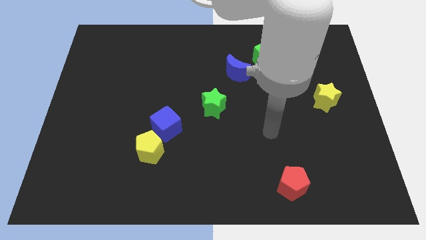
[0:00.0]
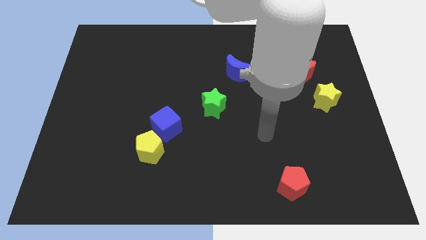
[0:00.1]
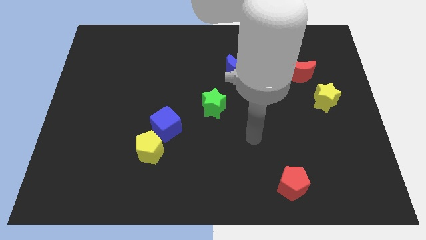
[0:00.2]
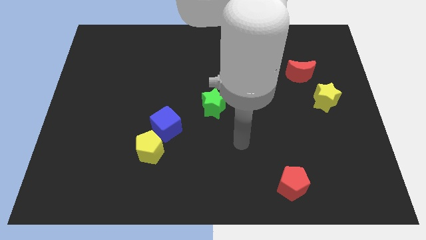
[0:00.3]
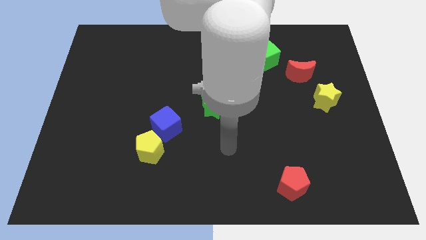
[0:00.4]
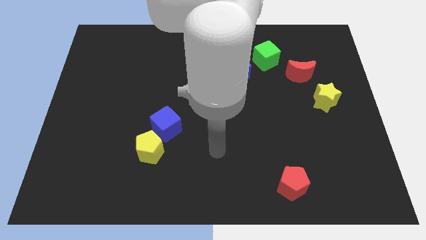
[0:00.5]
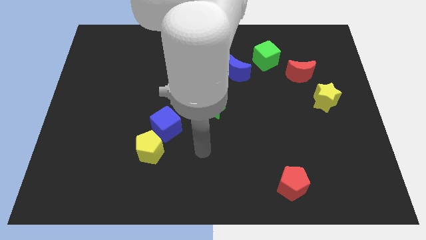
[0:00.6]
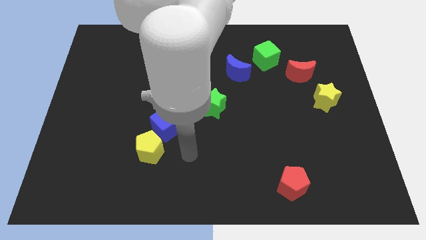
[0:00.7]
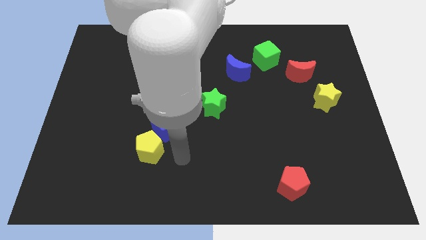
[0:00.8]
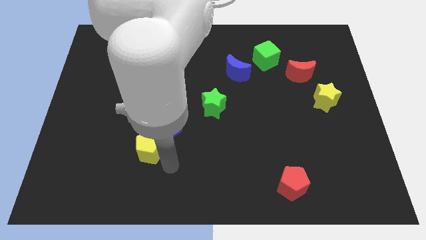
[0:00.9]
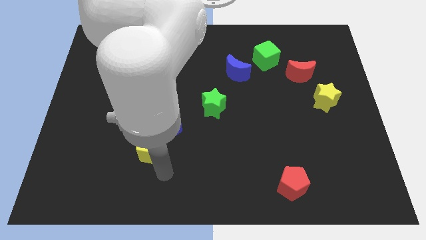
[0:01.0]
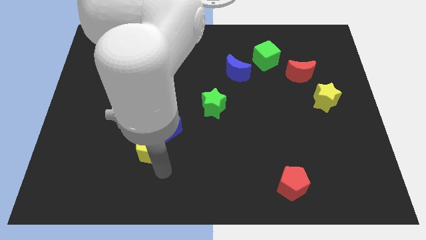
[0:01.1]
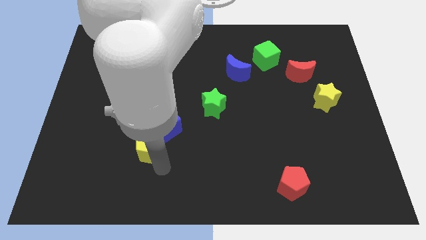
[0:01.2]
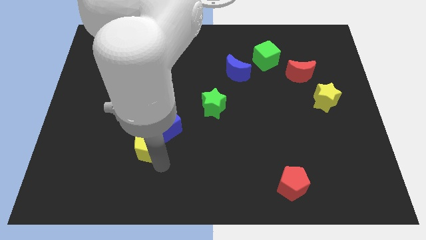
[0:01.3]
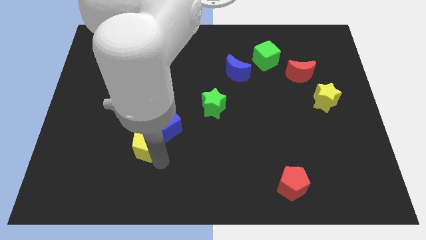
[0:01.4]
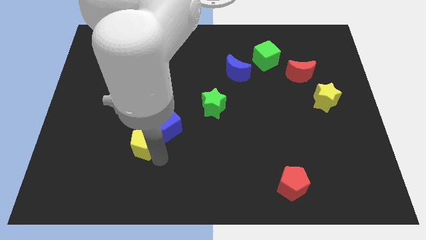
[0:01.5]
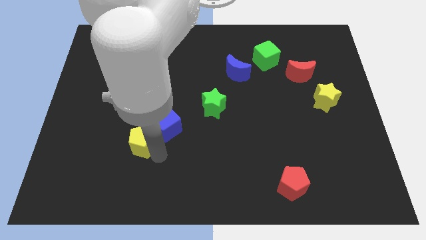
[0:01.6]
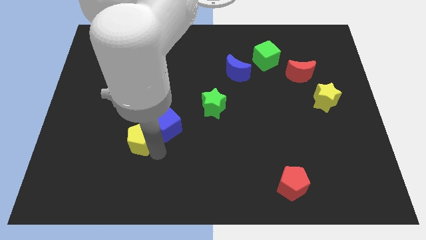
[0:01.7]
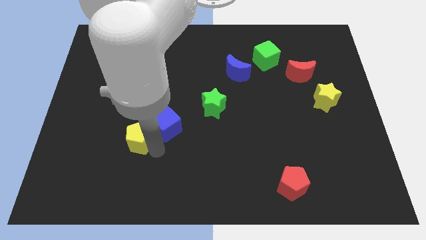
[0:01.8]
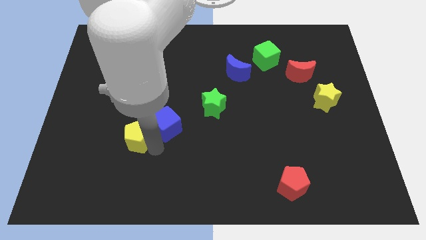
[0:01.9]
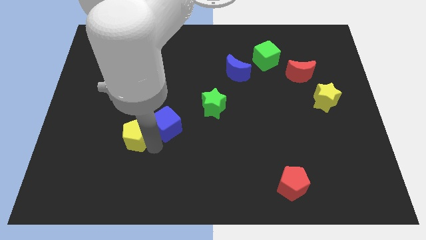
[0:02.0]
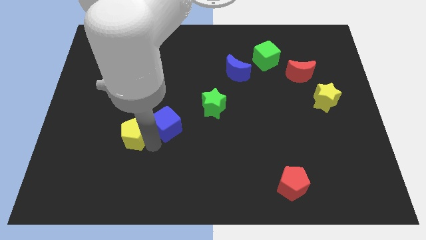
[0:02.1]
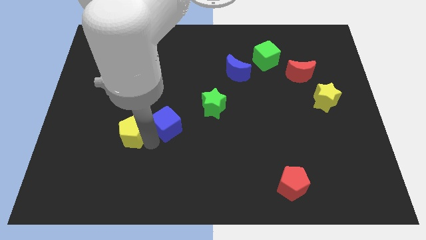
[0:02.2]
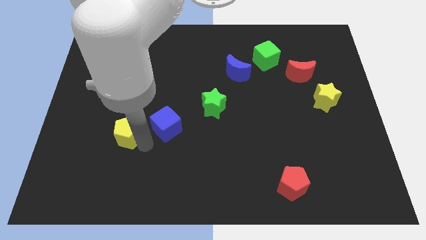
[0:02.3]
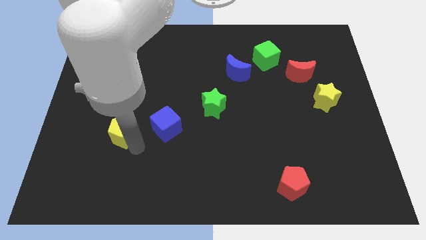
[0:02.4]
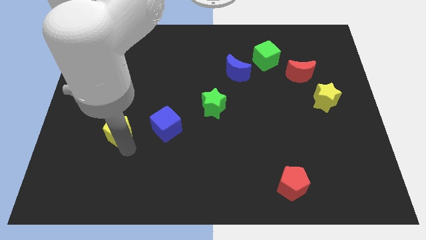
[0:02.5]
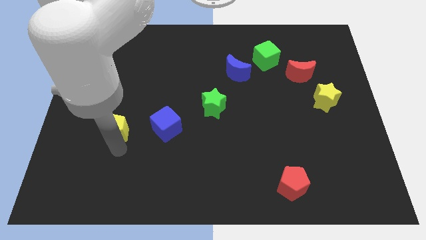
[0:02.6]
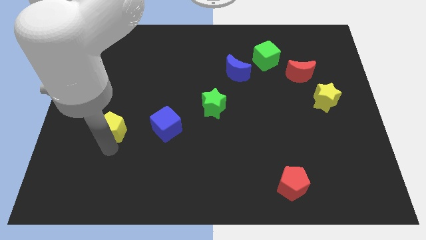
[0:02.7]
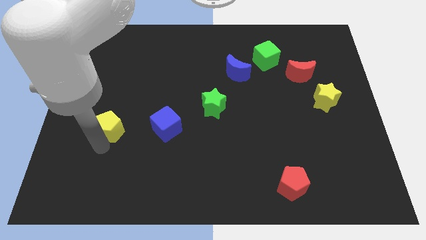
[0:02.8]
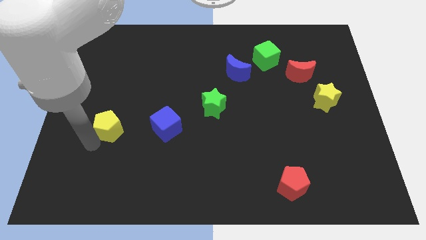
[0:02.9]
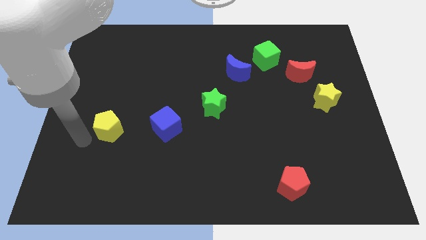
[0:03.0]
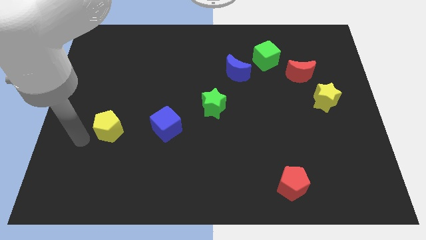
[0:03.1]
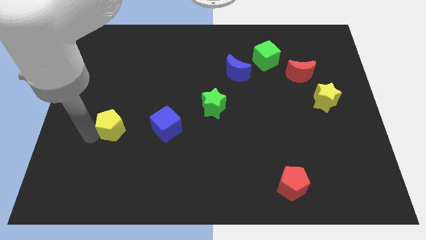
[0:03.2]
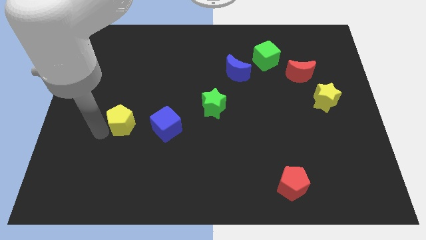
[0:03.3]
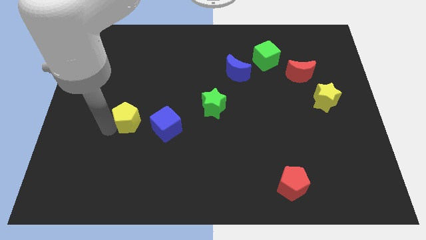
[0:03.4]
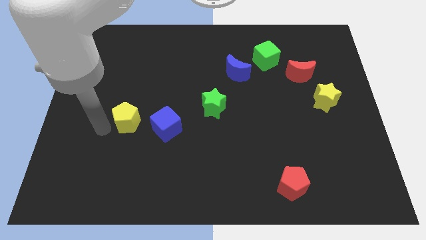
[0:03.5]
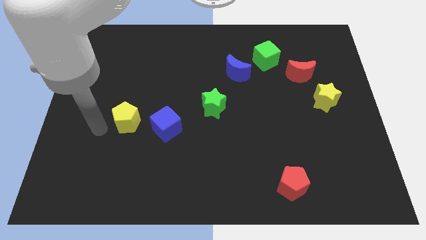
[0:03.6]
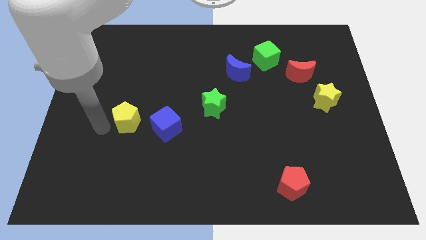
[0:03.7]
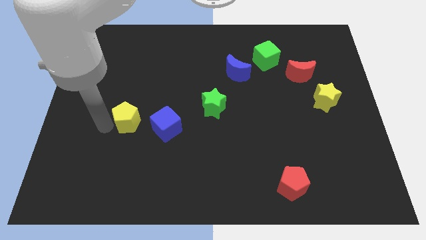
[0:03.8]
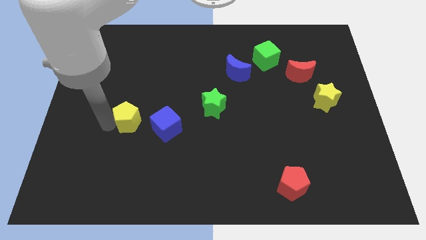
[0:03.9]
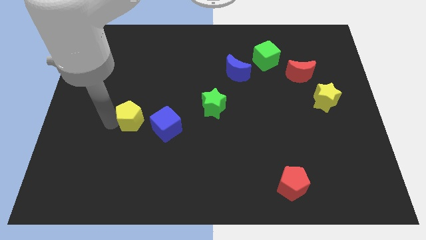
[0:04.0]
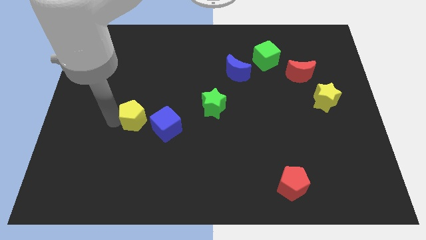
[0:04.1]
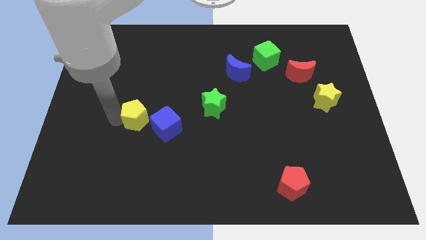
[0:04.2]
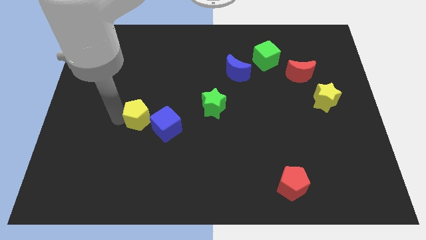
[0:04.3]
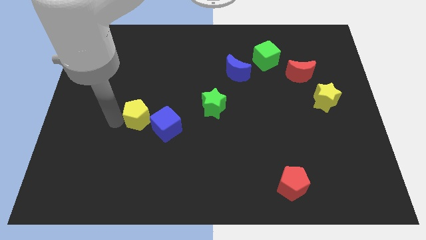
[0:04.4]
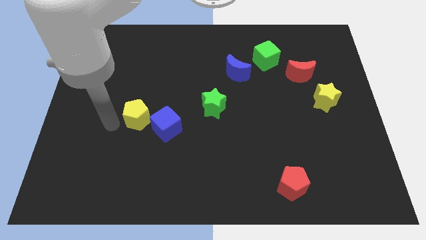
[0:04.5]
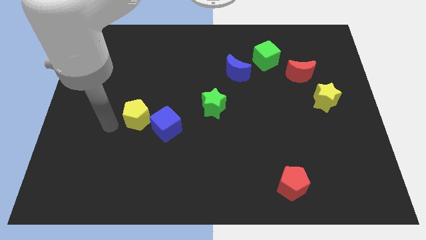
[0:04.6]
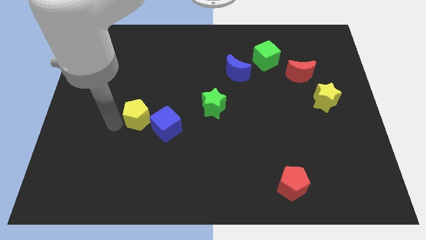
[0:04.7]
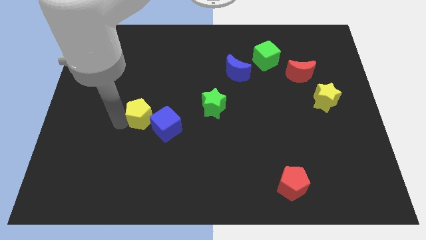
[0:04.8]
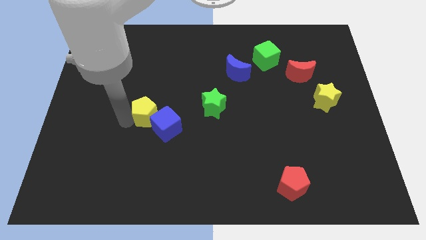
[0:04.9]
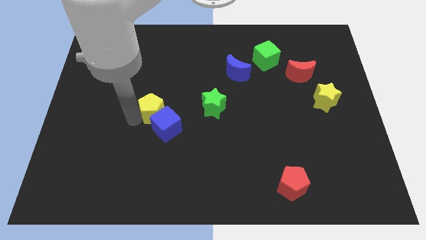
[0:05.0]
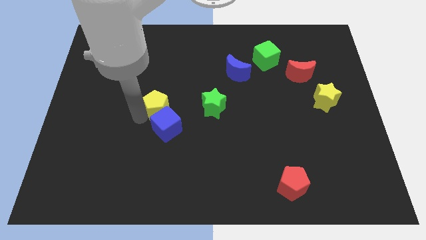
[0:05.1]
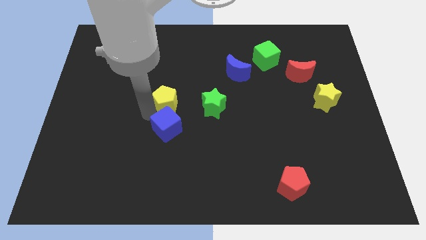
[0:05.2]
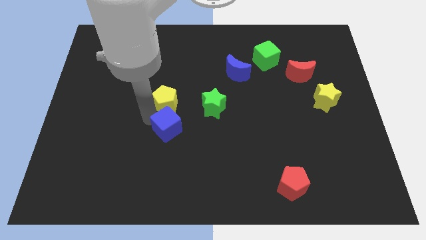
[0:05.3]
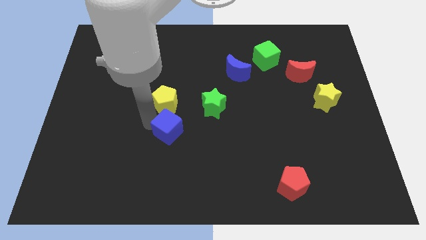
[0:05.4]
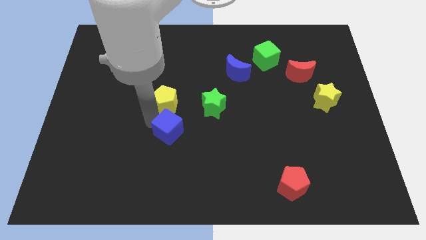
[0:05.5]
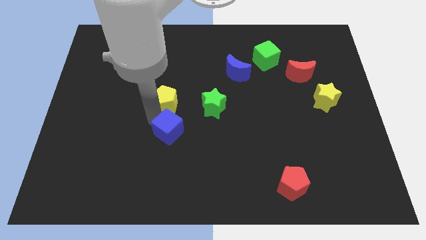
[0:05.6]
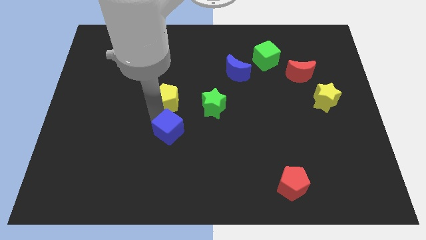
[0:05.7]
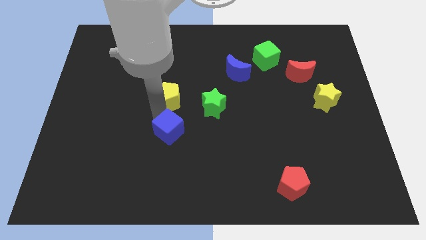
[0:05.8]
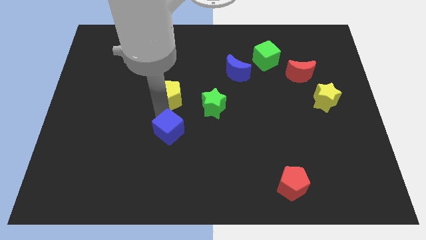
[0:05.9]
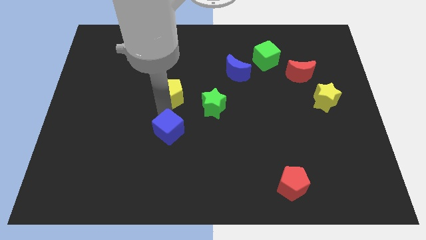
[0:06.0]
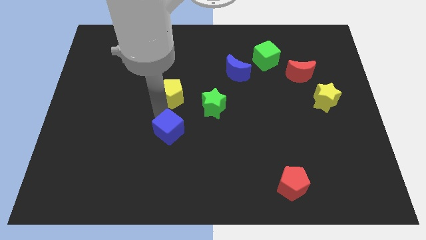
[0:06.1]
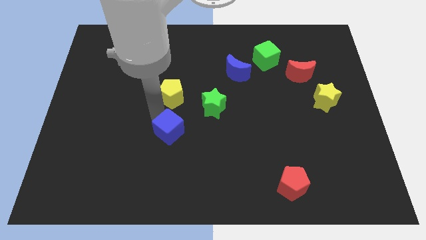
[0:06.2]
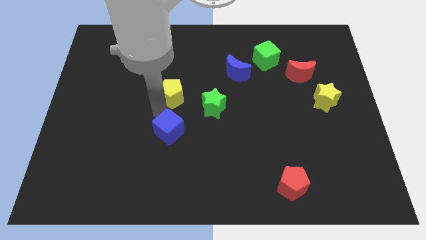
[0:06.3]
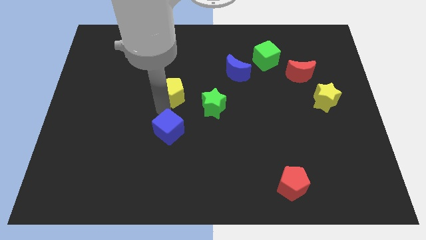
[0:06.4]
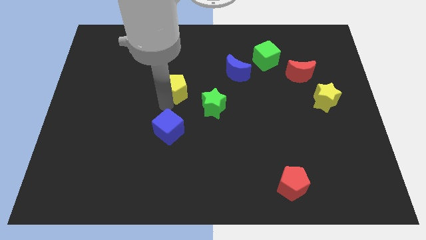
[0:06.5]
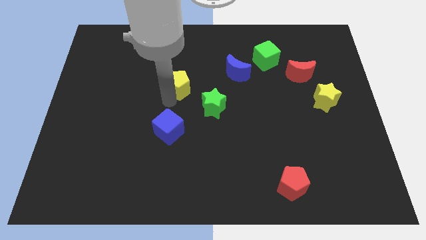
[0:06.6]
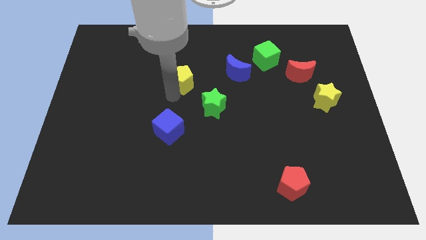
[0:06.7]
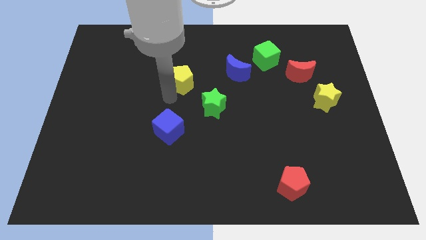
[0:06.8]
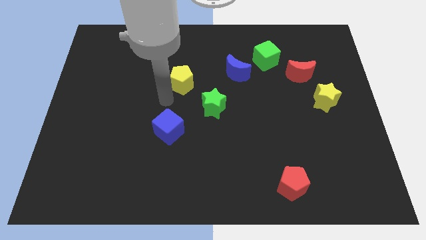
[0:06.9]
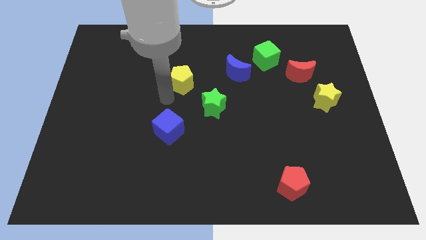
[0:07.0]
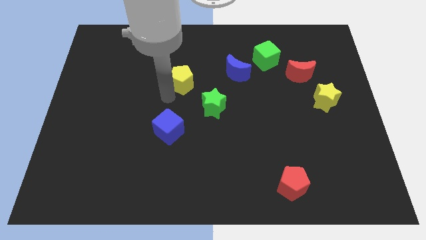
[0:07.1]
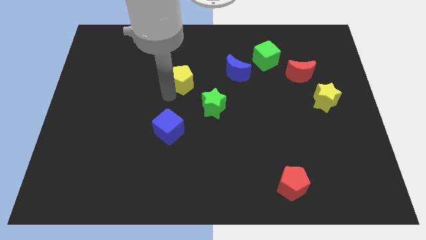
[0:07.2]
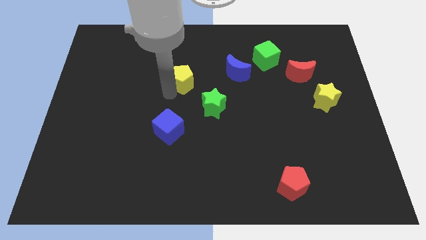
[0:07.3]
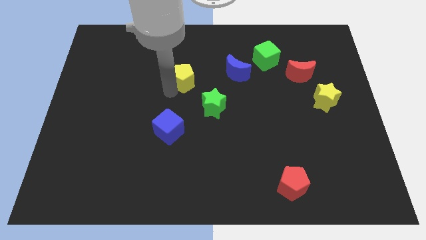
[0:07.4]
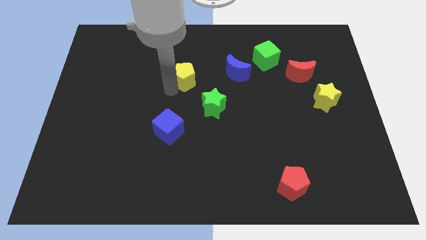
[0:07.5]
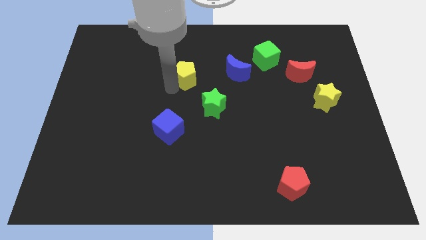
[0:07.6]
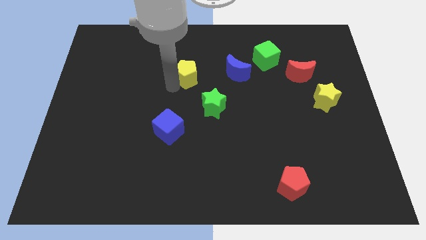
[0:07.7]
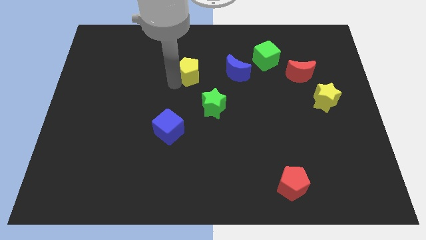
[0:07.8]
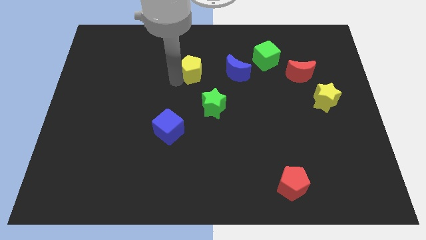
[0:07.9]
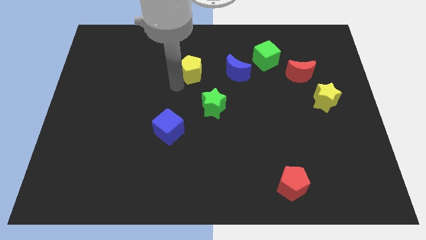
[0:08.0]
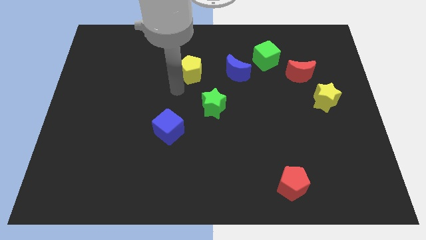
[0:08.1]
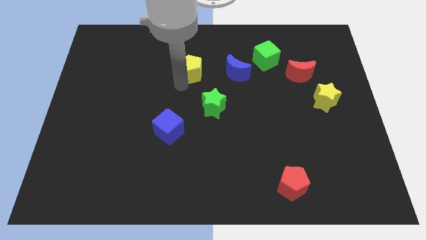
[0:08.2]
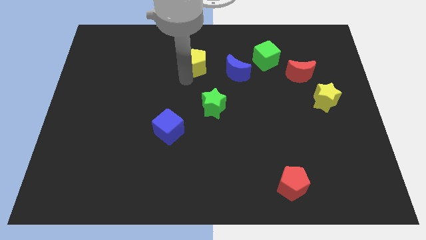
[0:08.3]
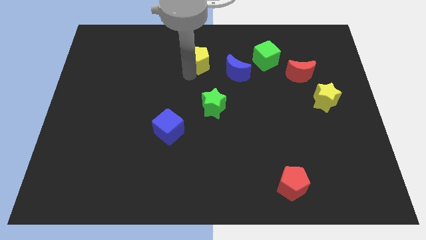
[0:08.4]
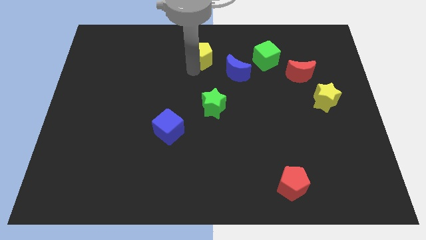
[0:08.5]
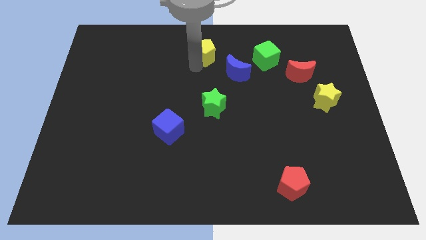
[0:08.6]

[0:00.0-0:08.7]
put the yellow pentagon to the top
